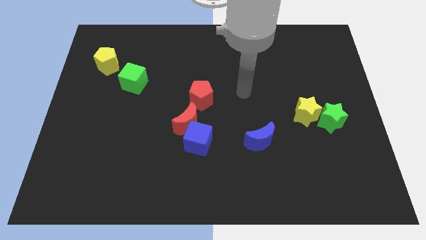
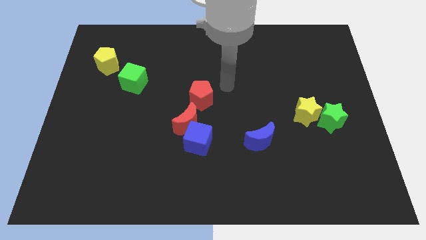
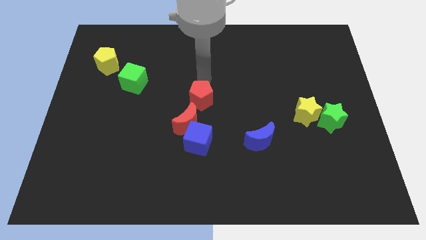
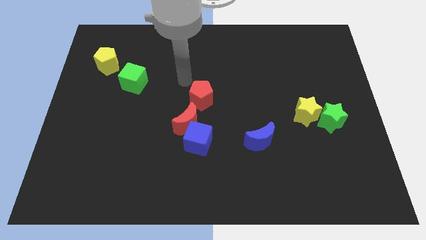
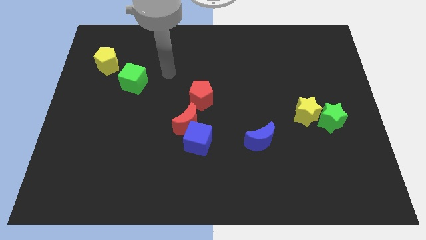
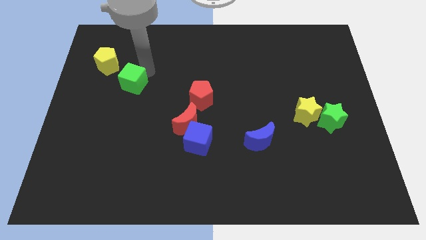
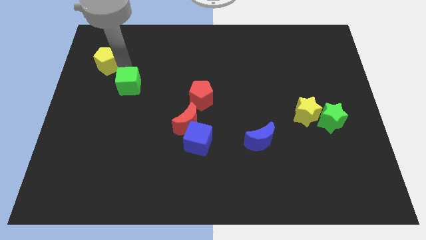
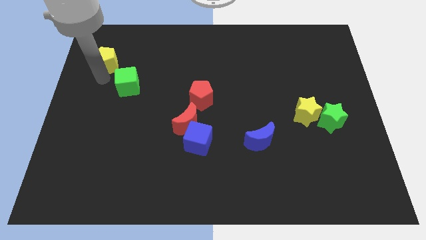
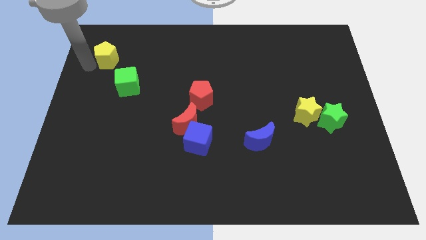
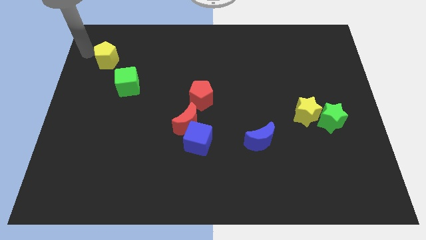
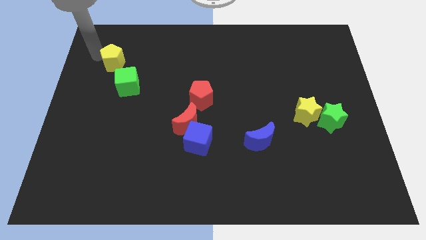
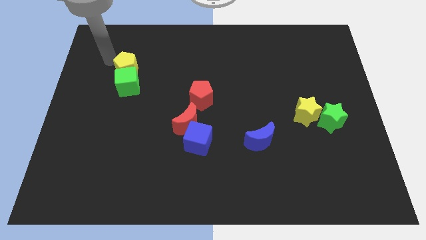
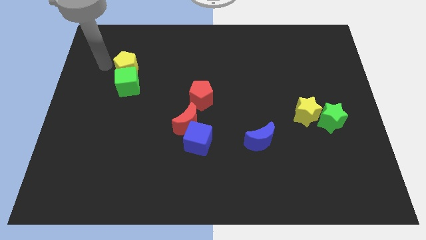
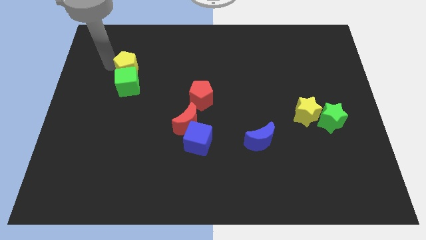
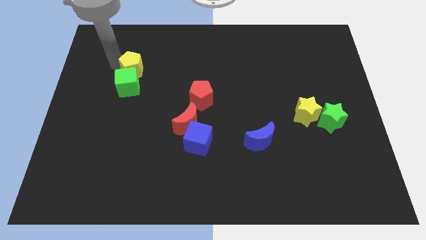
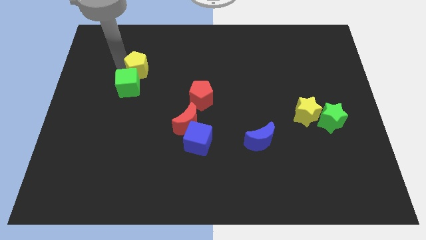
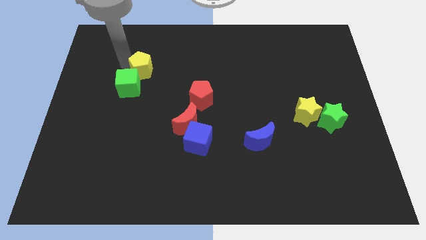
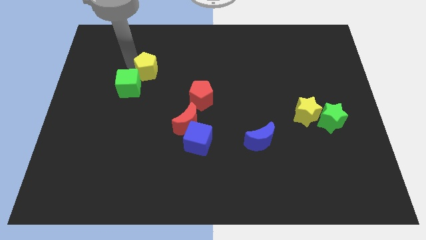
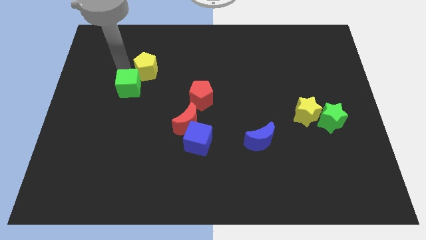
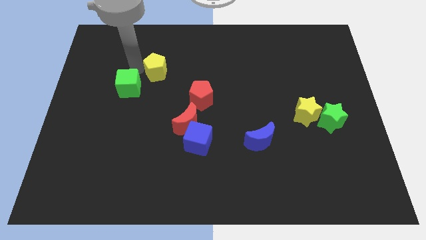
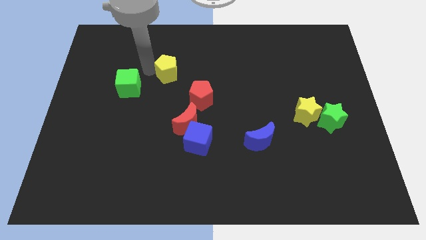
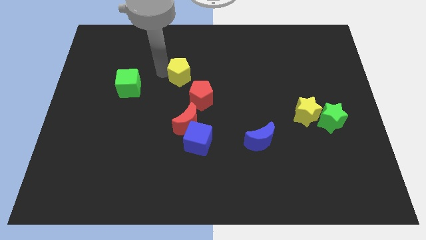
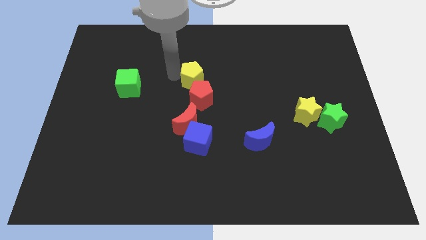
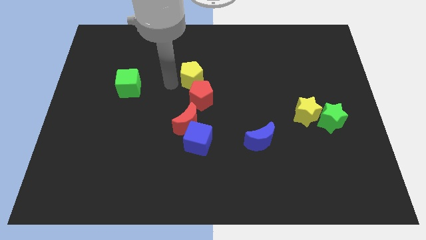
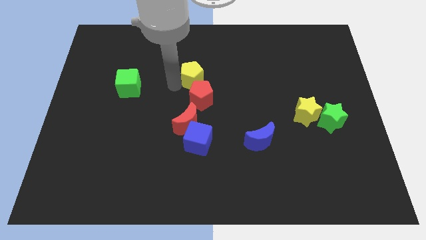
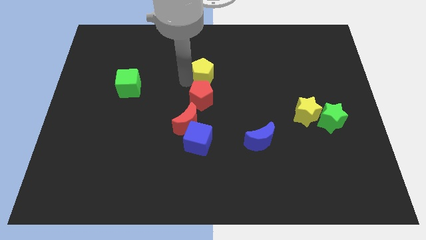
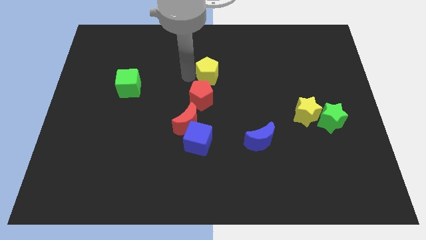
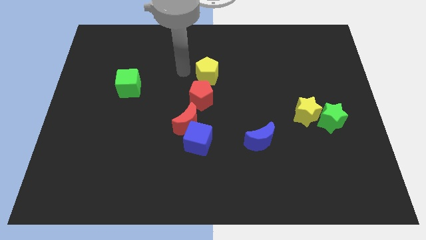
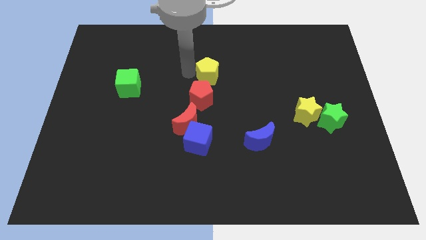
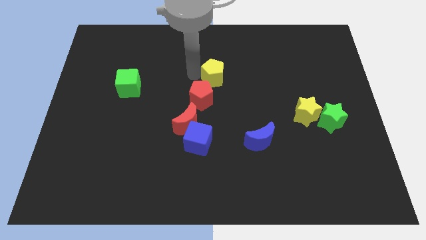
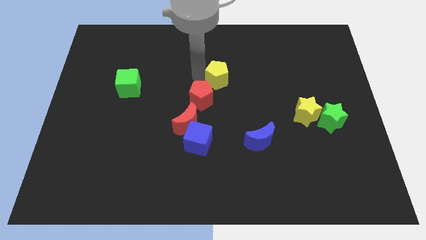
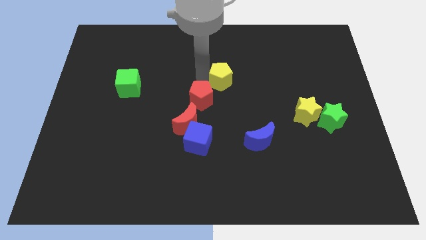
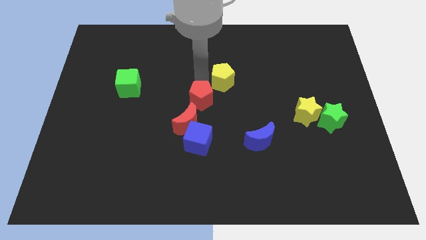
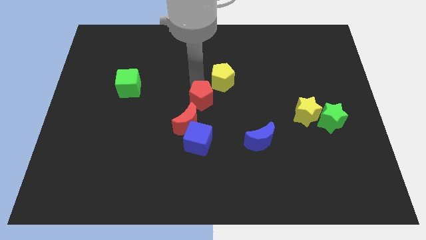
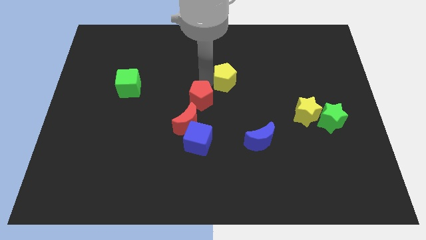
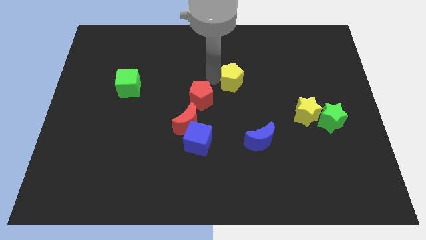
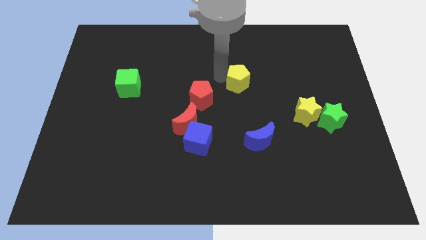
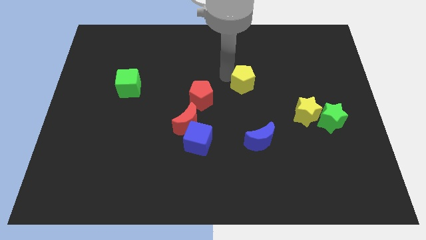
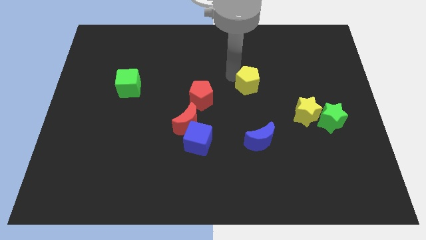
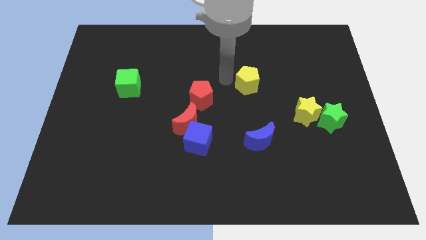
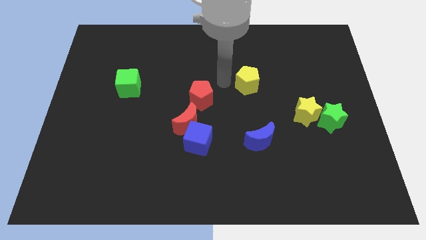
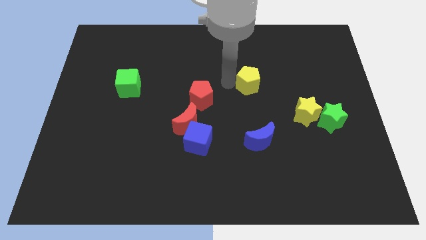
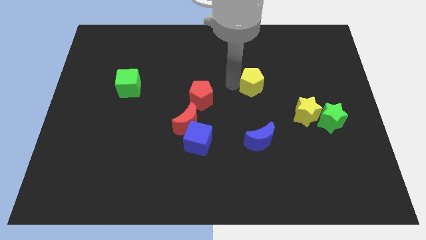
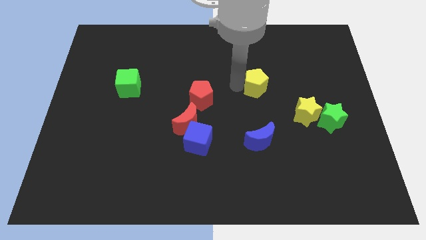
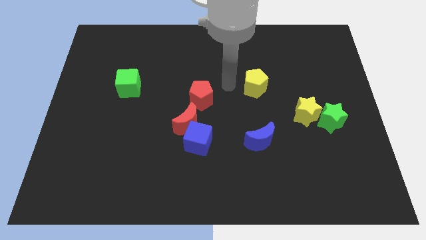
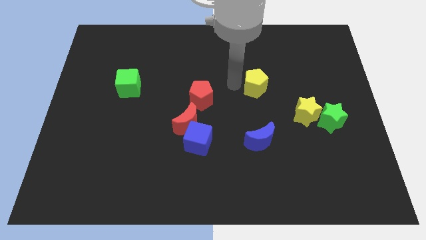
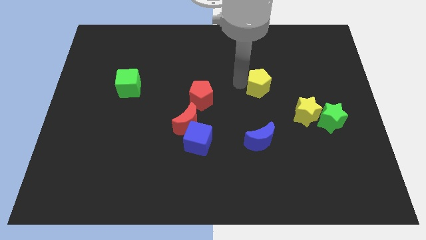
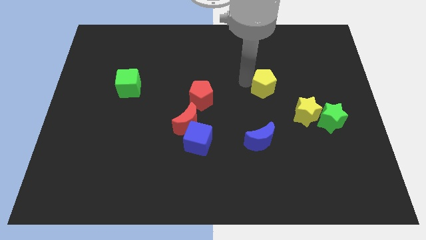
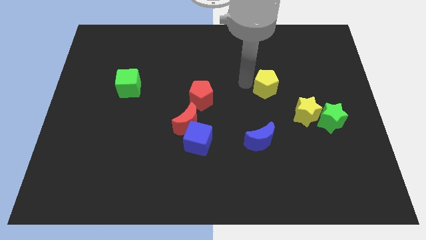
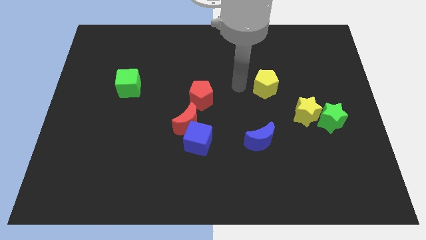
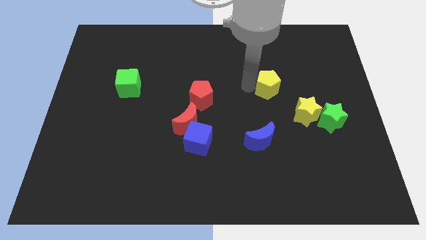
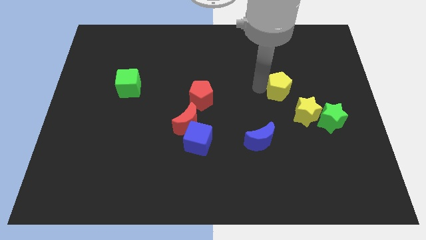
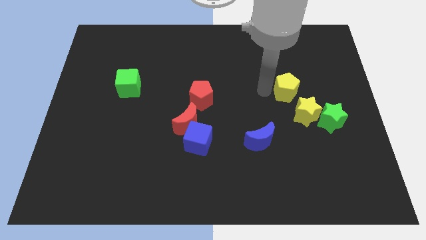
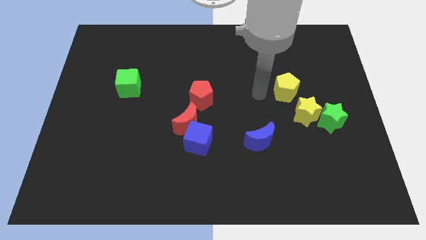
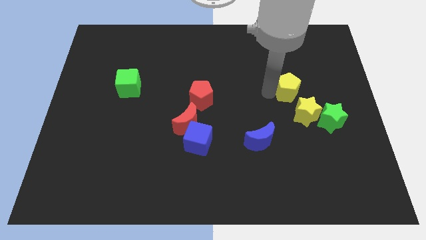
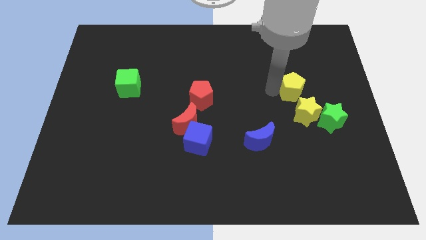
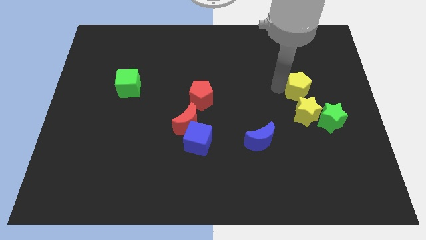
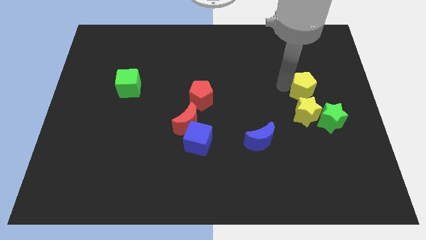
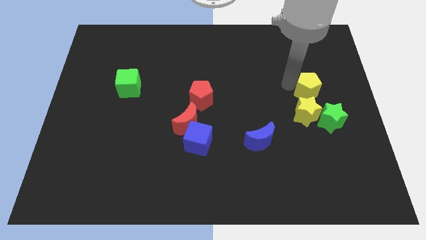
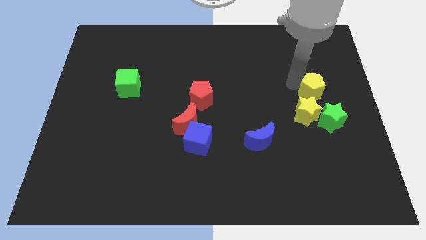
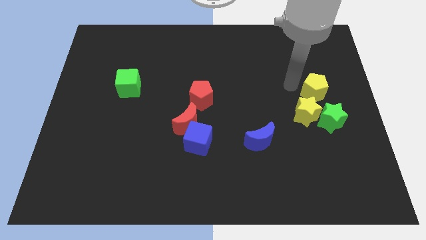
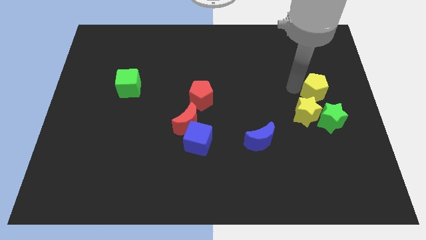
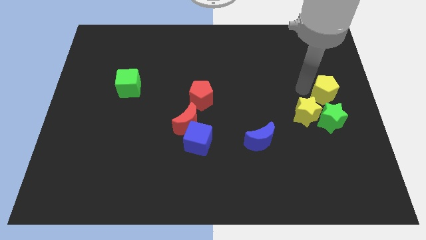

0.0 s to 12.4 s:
put the yellow pentagon to the center right

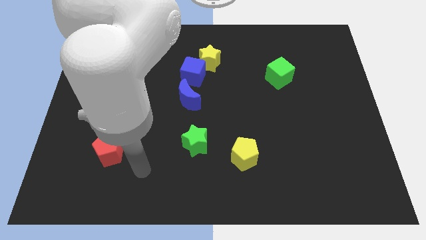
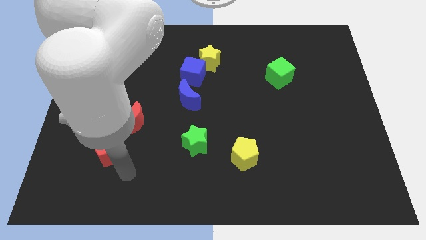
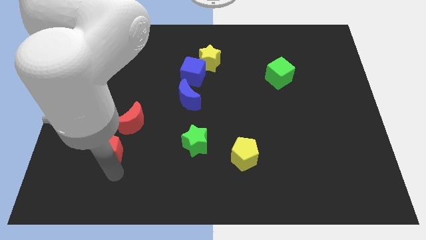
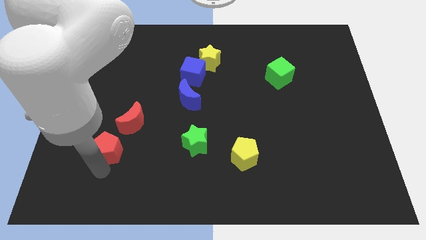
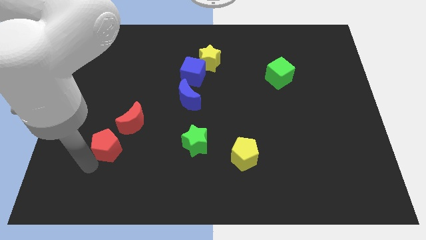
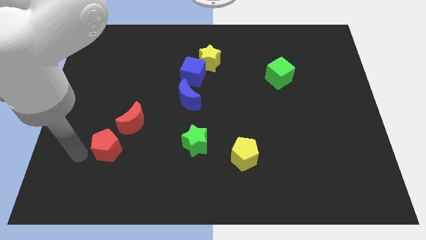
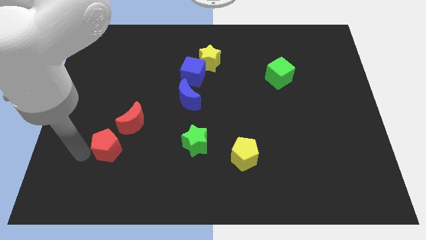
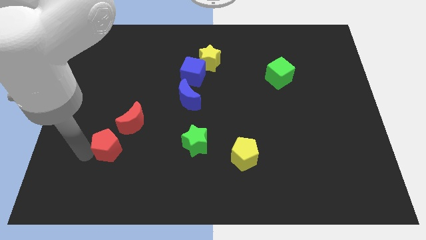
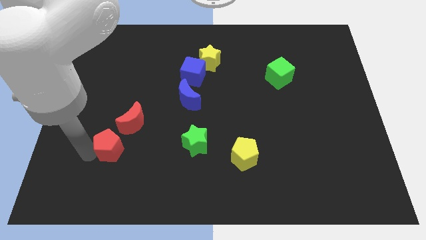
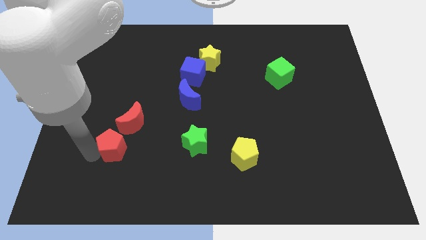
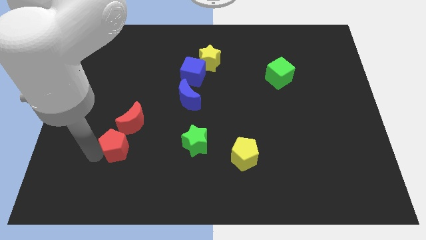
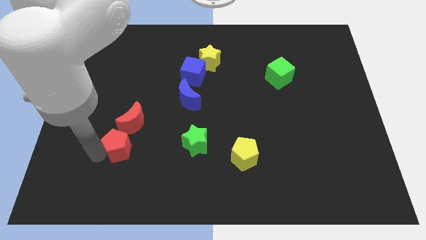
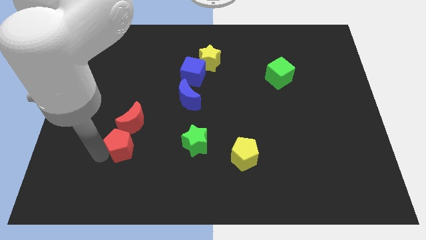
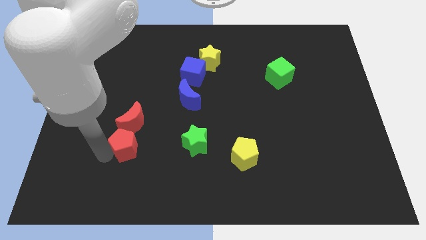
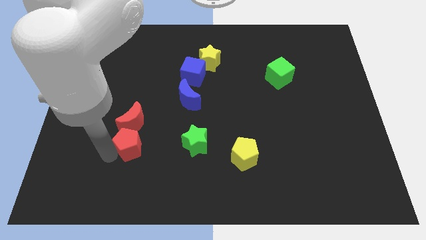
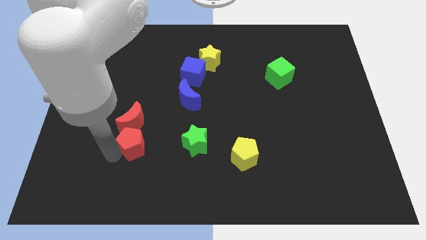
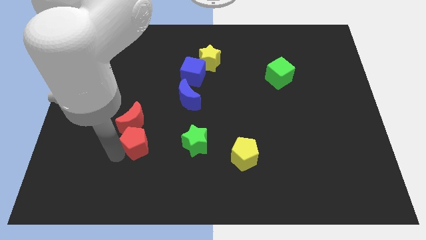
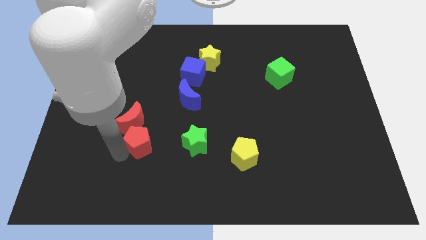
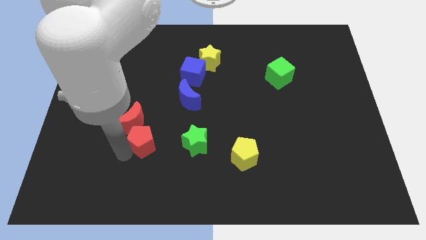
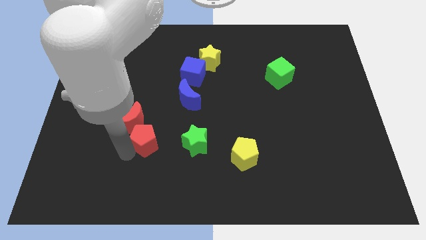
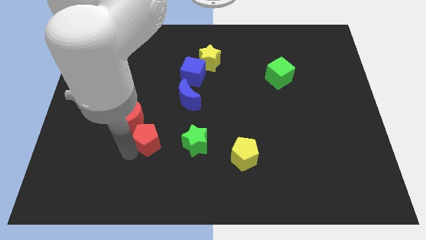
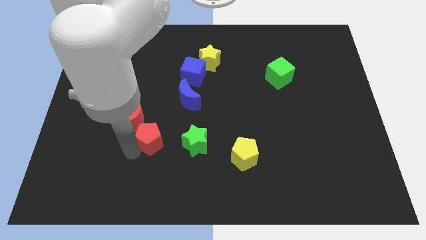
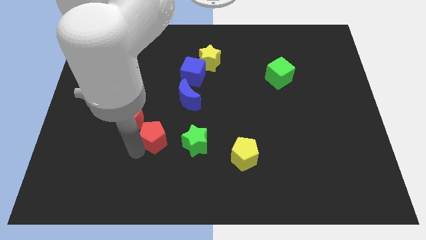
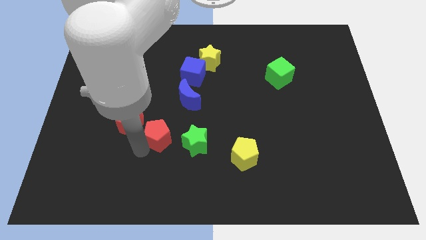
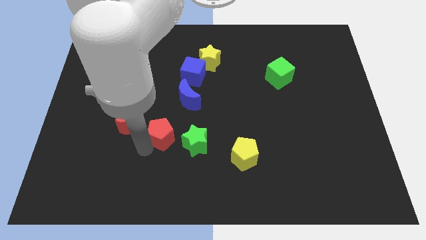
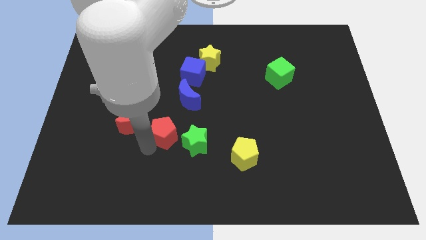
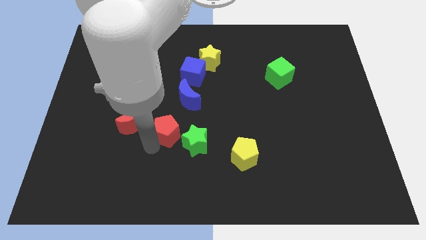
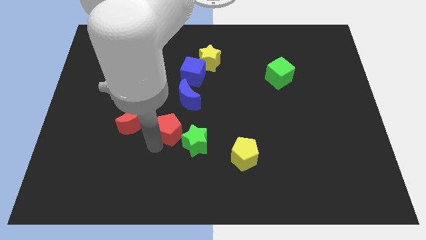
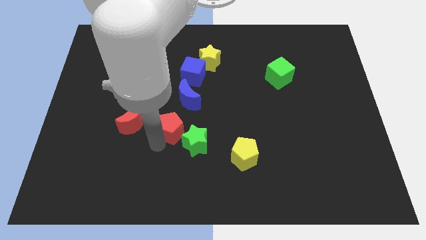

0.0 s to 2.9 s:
put the red pentagon to the center of the board
